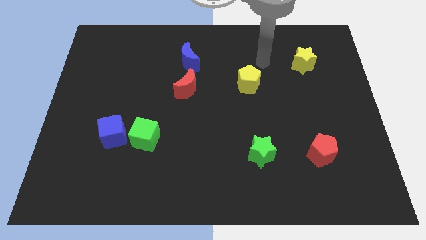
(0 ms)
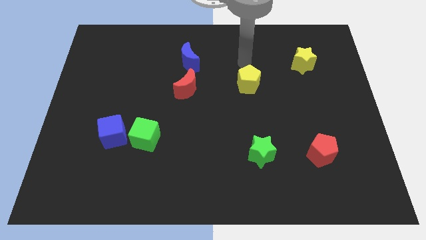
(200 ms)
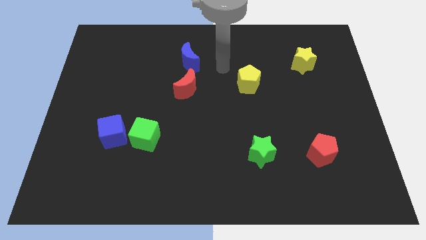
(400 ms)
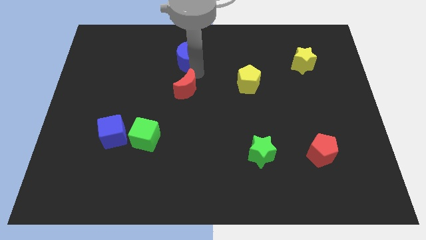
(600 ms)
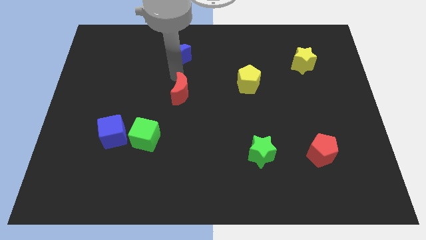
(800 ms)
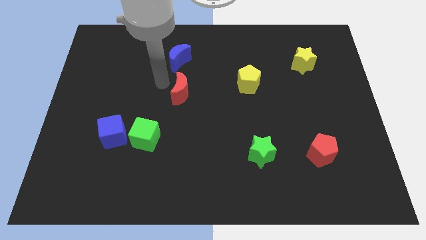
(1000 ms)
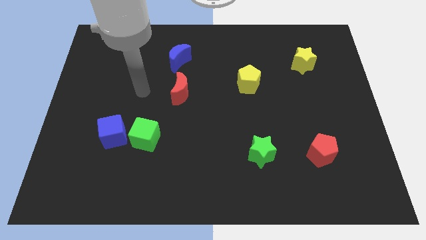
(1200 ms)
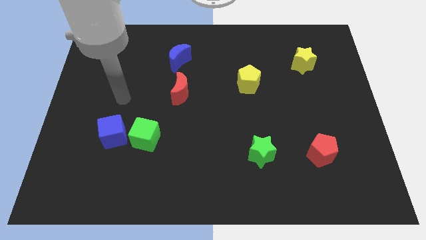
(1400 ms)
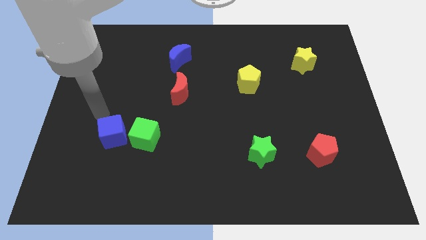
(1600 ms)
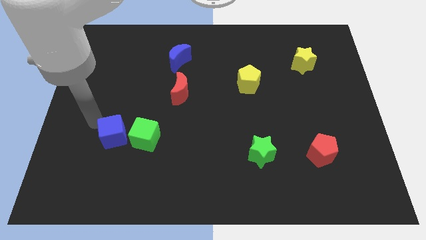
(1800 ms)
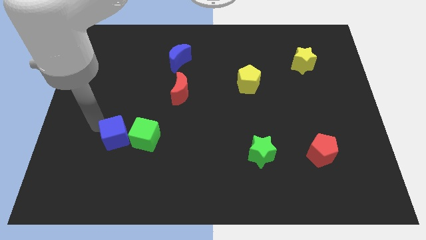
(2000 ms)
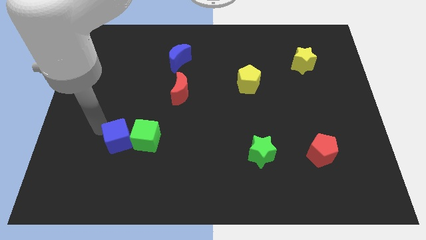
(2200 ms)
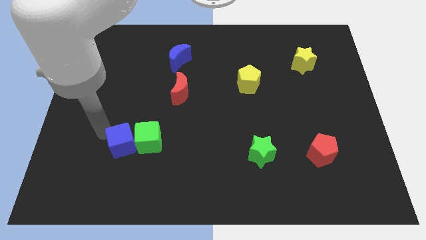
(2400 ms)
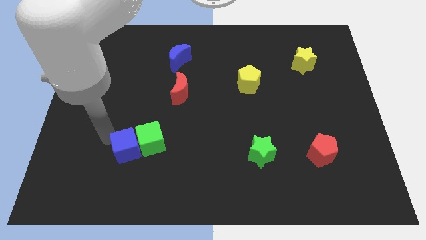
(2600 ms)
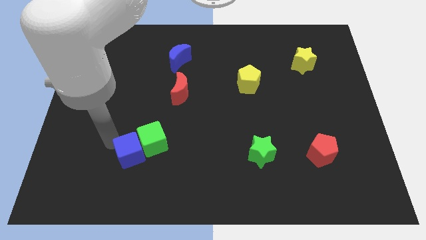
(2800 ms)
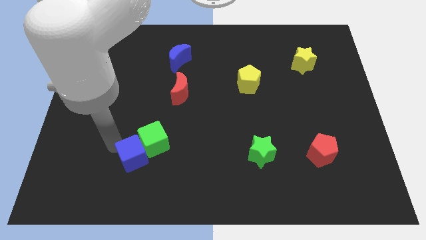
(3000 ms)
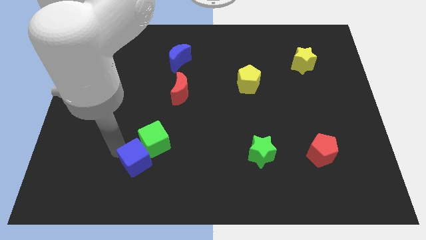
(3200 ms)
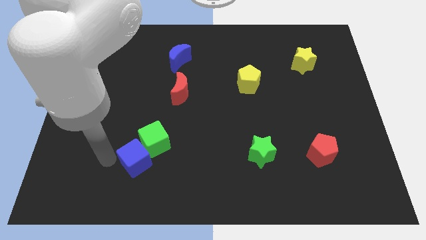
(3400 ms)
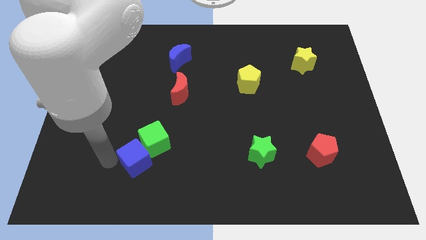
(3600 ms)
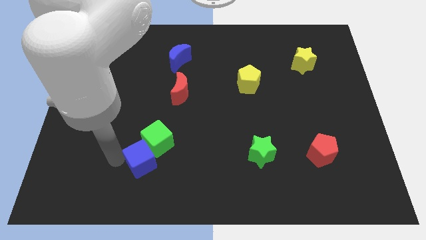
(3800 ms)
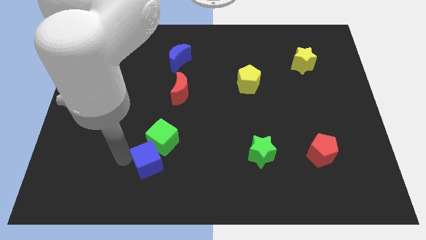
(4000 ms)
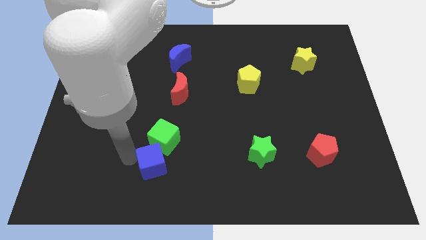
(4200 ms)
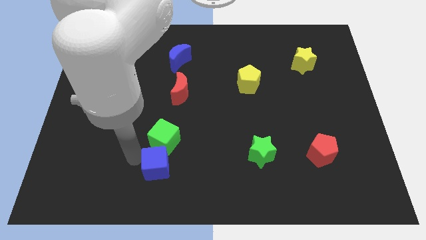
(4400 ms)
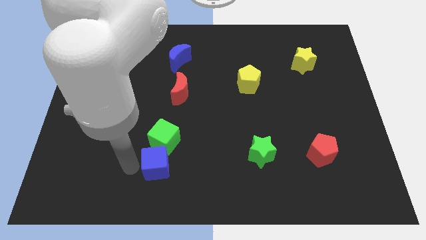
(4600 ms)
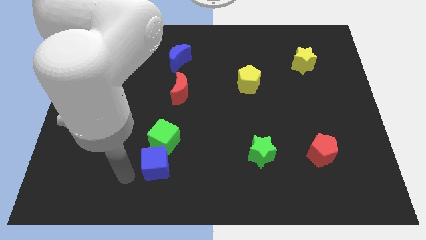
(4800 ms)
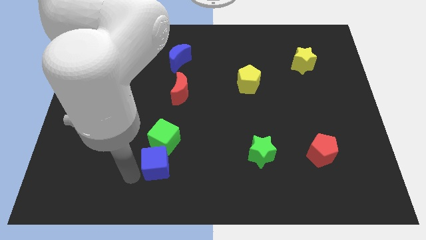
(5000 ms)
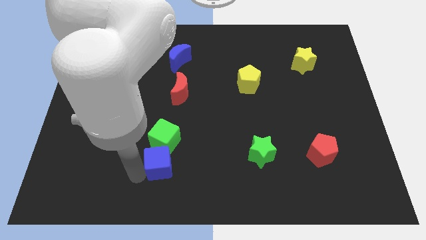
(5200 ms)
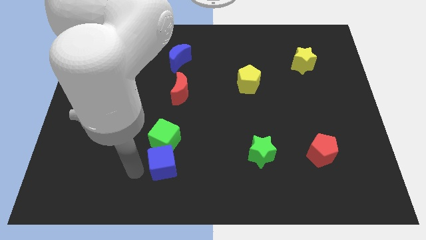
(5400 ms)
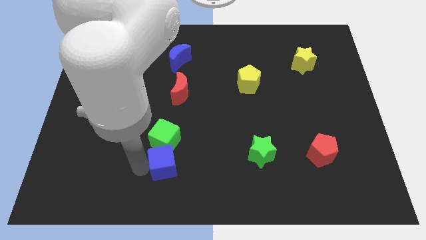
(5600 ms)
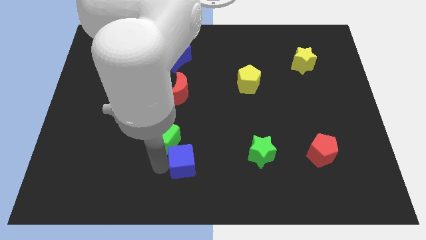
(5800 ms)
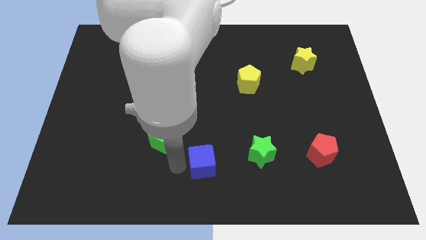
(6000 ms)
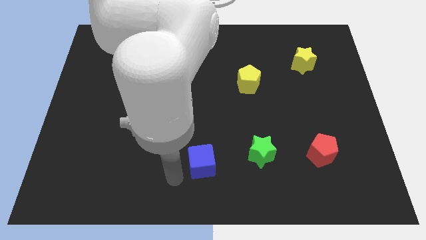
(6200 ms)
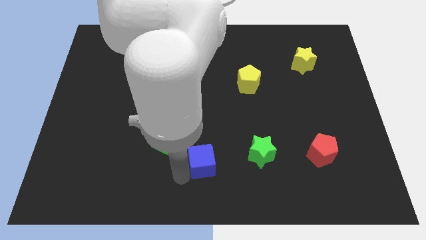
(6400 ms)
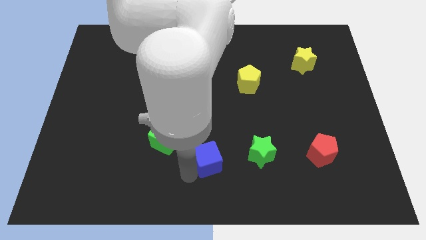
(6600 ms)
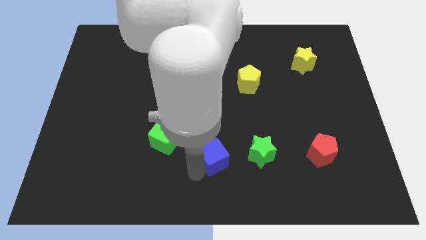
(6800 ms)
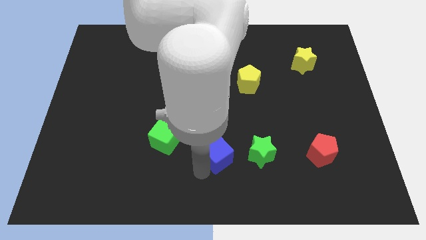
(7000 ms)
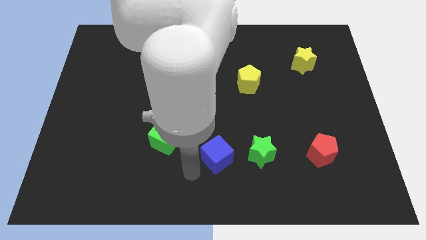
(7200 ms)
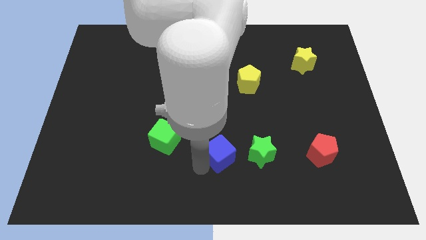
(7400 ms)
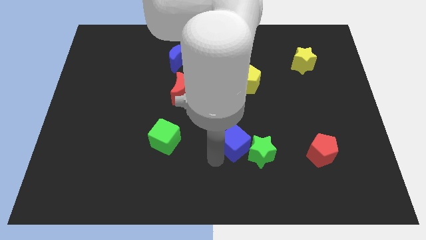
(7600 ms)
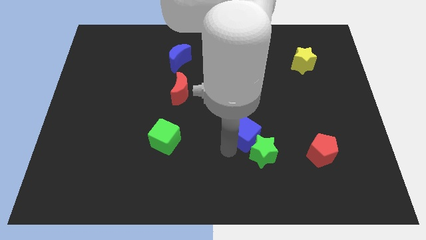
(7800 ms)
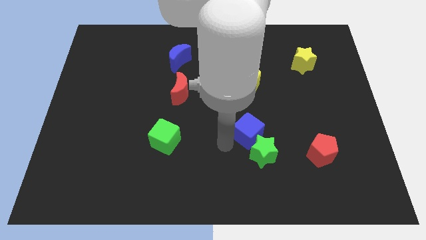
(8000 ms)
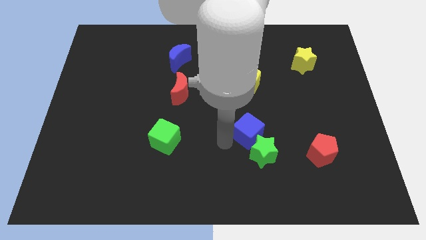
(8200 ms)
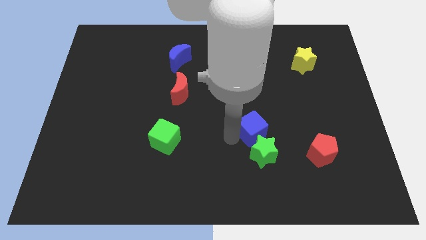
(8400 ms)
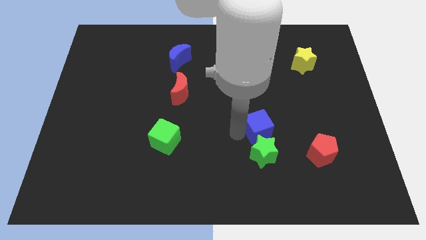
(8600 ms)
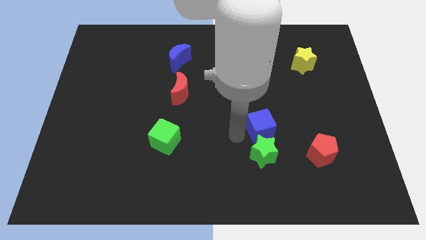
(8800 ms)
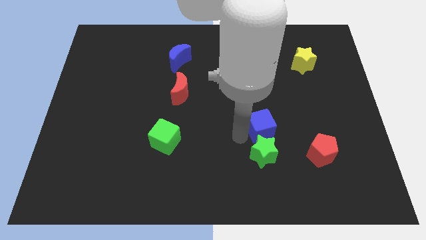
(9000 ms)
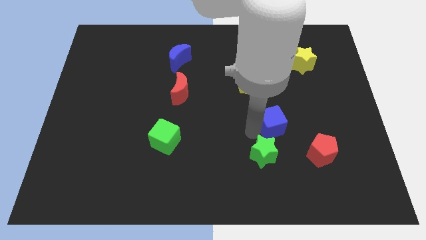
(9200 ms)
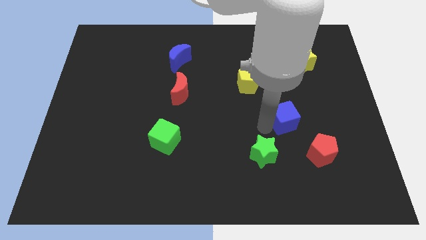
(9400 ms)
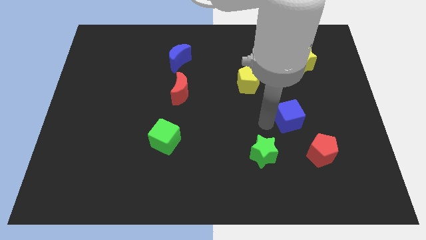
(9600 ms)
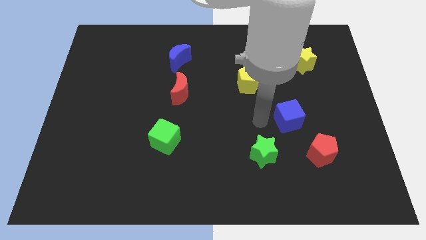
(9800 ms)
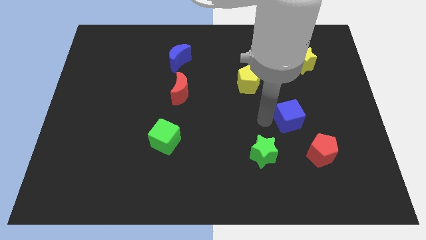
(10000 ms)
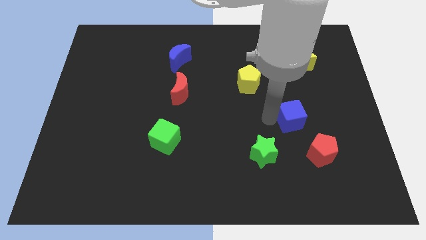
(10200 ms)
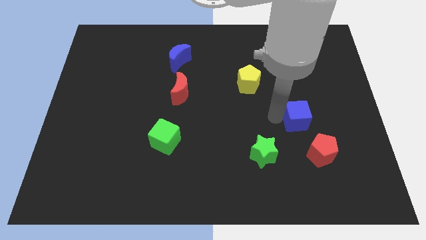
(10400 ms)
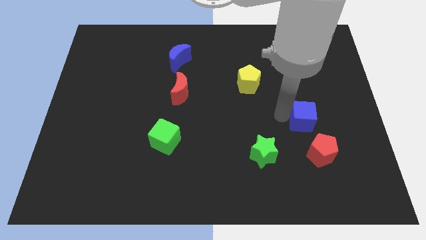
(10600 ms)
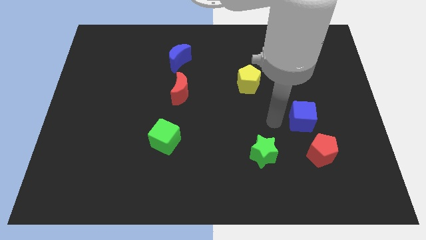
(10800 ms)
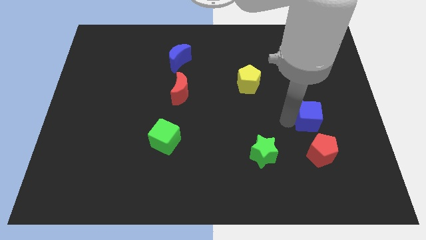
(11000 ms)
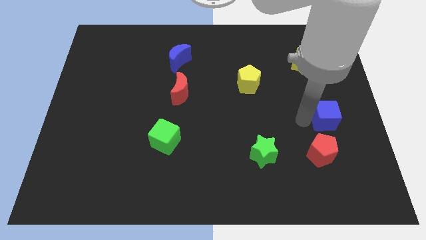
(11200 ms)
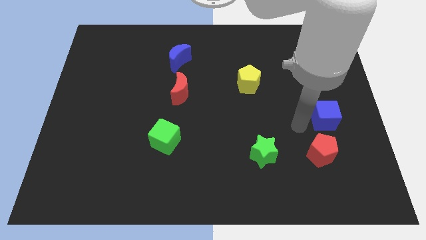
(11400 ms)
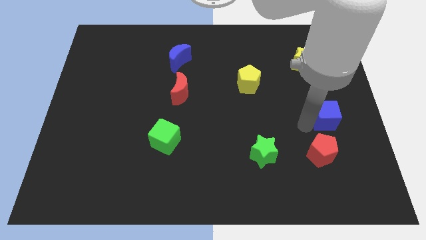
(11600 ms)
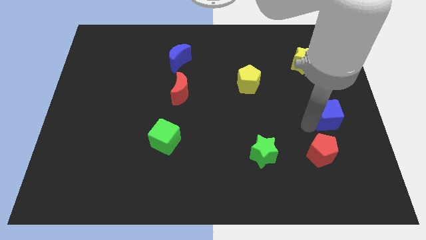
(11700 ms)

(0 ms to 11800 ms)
push the blue cube to the right side

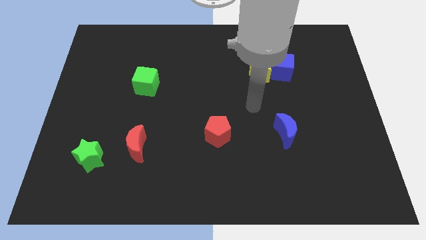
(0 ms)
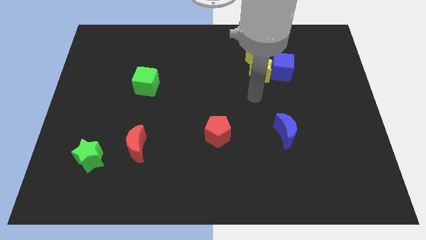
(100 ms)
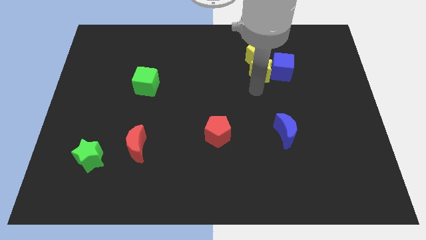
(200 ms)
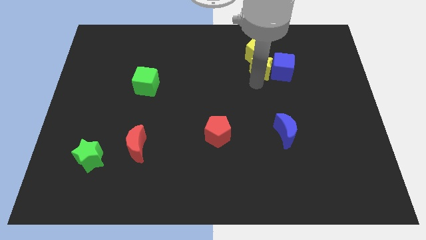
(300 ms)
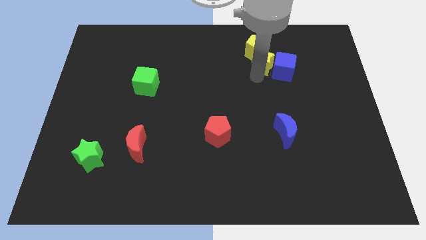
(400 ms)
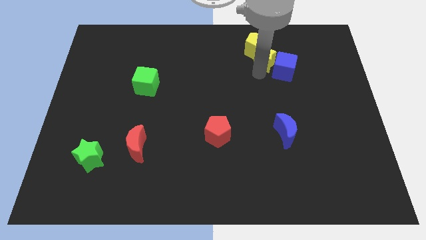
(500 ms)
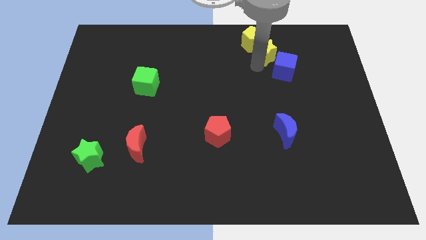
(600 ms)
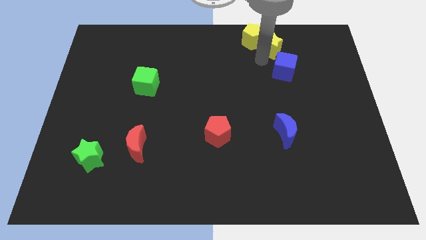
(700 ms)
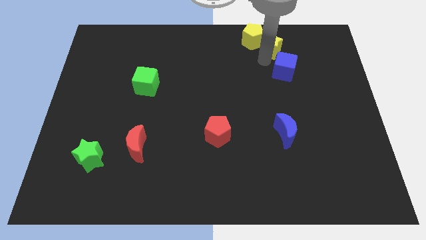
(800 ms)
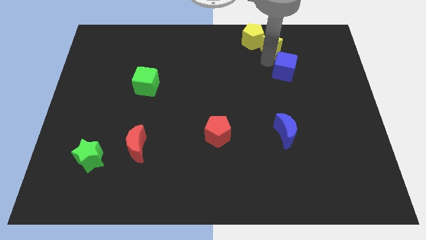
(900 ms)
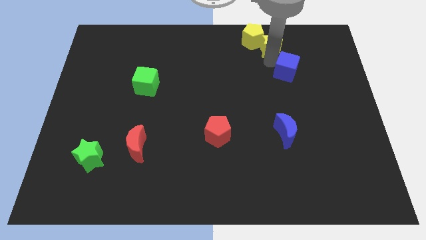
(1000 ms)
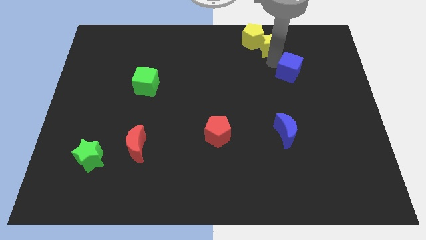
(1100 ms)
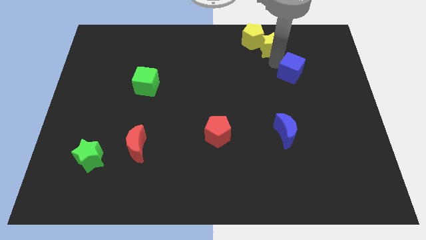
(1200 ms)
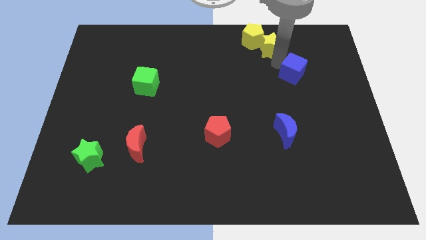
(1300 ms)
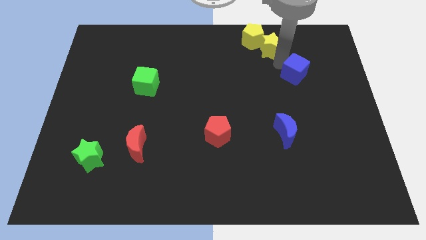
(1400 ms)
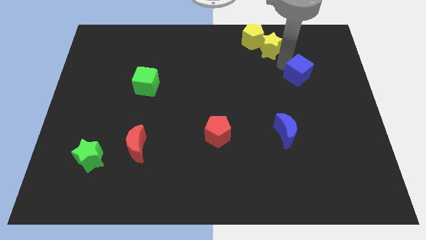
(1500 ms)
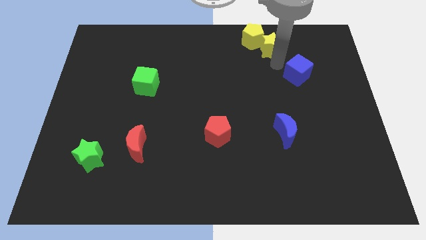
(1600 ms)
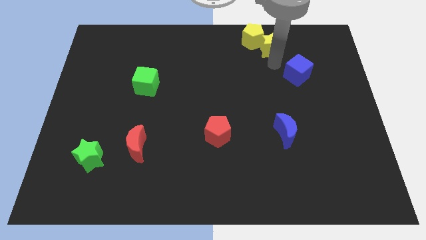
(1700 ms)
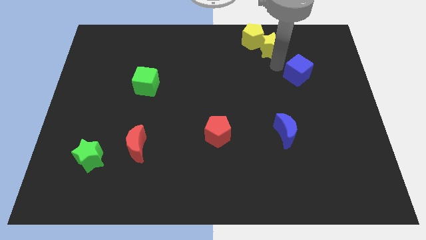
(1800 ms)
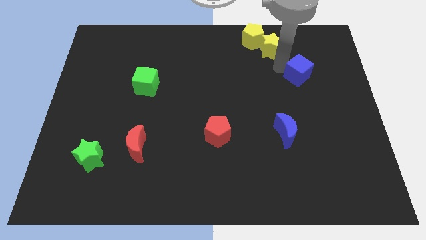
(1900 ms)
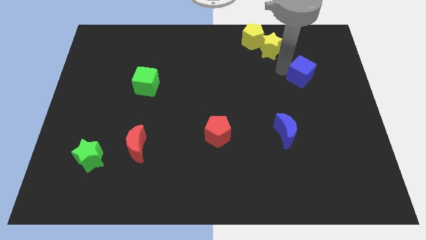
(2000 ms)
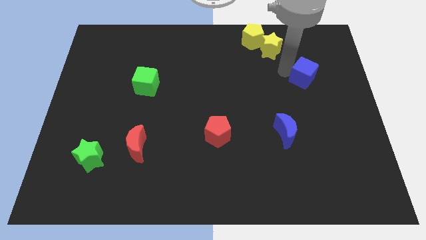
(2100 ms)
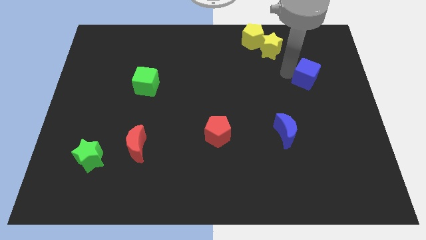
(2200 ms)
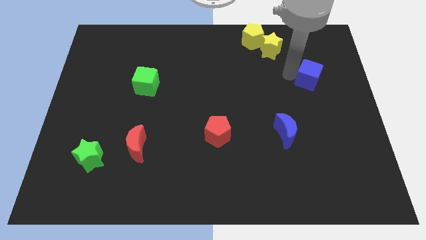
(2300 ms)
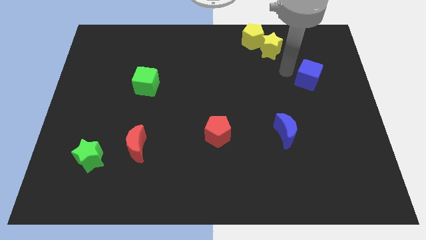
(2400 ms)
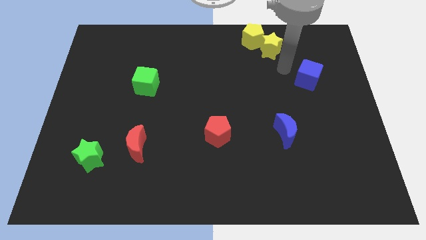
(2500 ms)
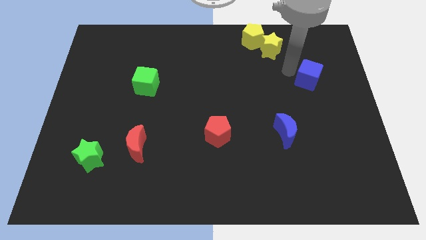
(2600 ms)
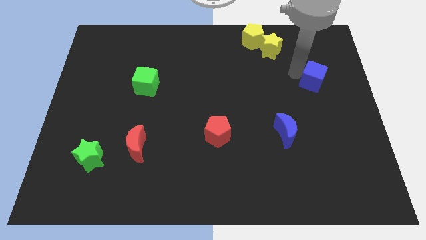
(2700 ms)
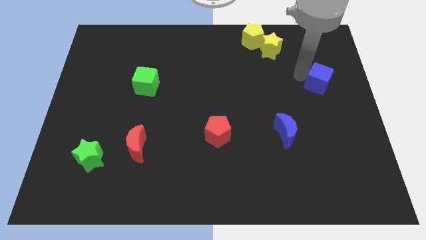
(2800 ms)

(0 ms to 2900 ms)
move the blue cube to the right side
